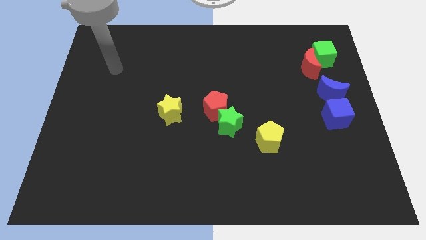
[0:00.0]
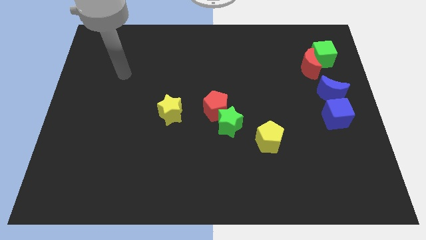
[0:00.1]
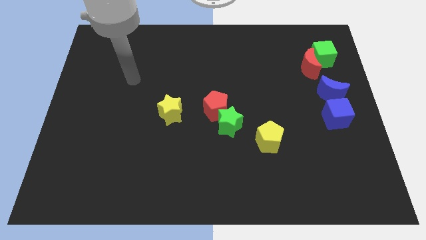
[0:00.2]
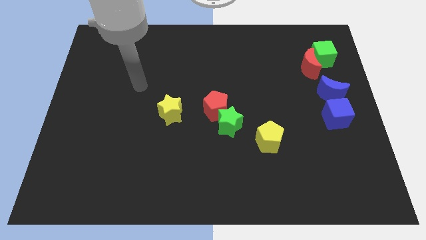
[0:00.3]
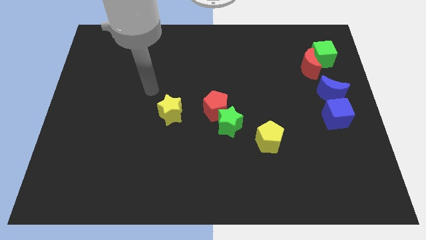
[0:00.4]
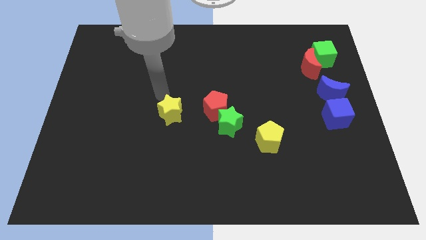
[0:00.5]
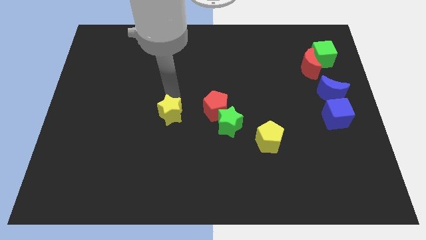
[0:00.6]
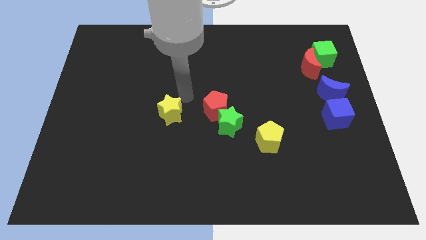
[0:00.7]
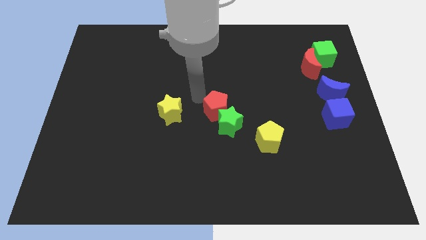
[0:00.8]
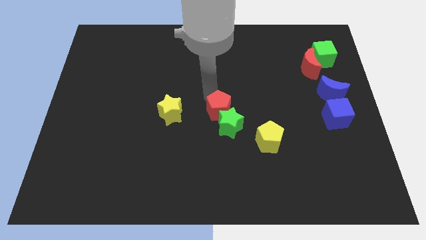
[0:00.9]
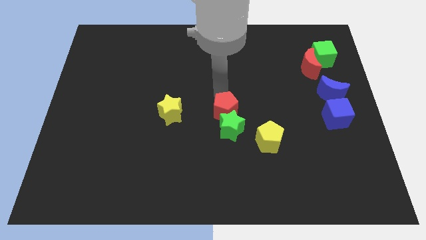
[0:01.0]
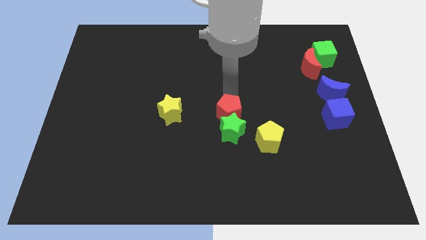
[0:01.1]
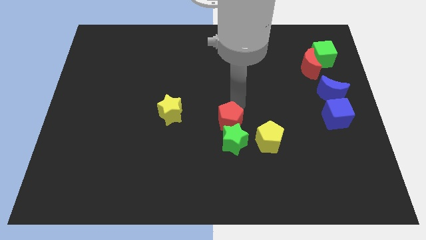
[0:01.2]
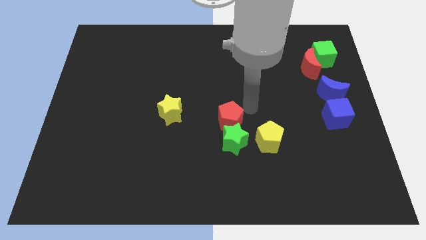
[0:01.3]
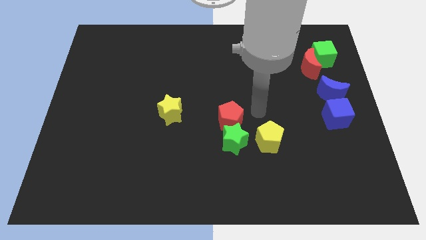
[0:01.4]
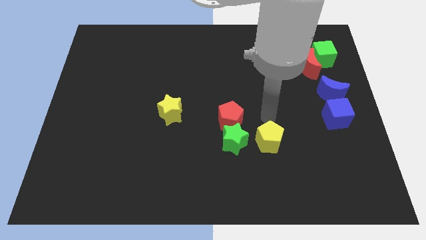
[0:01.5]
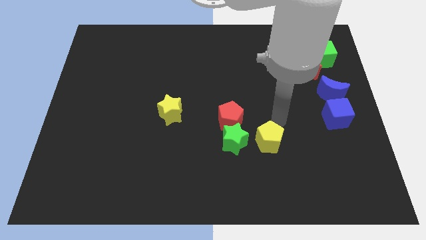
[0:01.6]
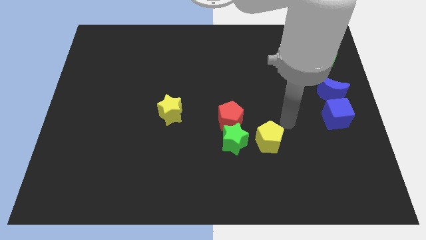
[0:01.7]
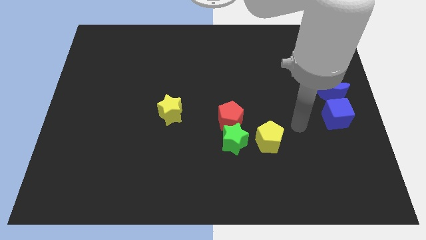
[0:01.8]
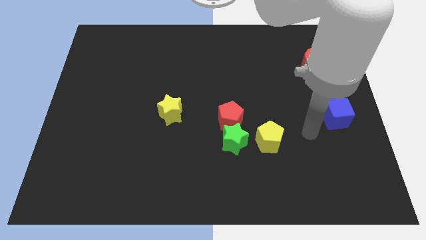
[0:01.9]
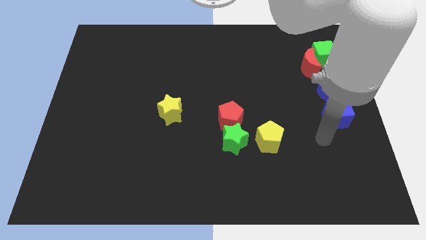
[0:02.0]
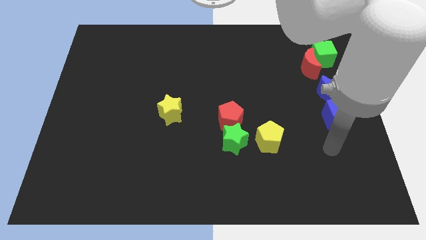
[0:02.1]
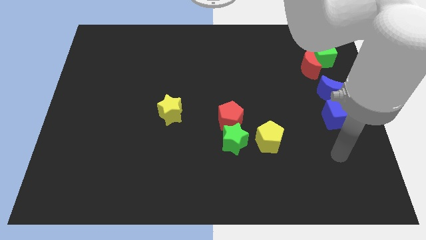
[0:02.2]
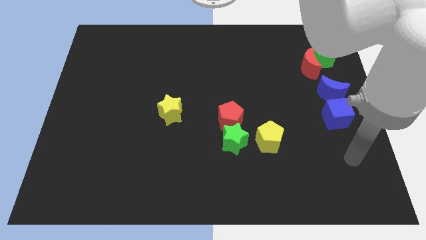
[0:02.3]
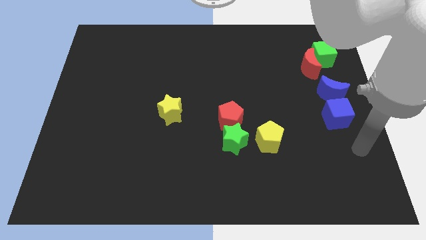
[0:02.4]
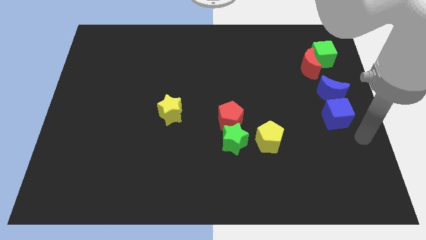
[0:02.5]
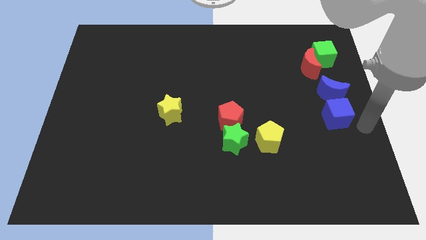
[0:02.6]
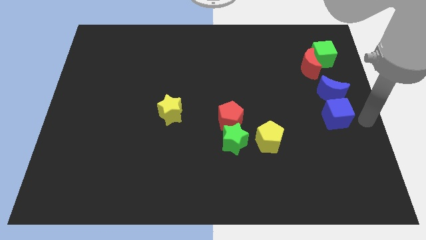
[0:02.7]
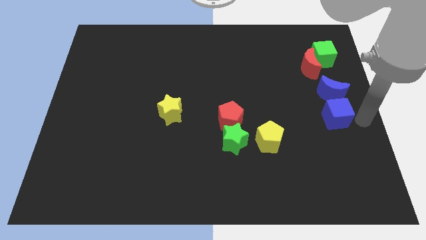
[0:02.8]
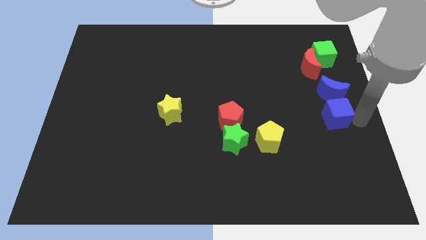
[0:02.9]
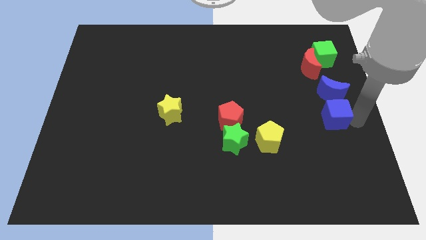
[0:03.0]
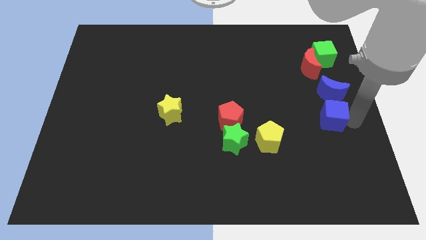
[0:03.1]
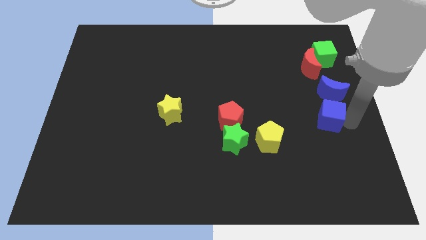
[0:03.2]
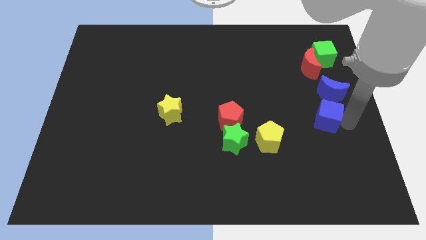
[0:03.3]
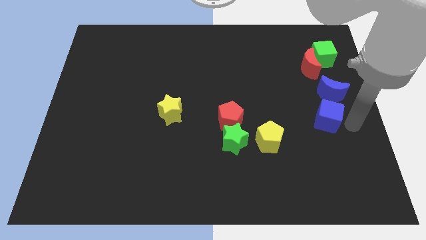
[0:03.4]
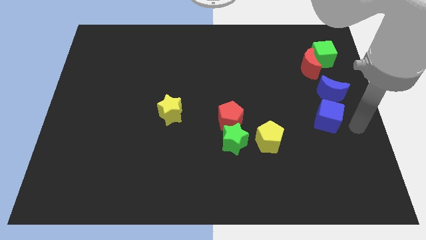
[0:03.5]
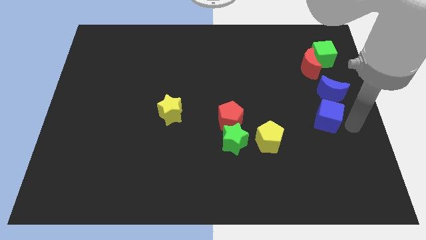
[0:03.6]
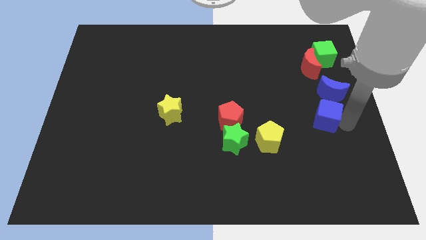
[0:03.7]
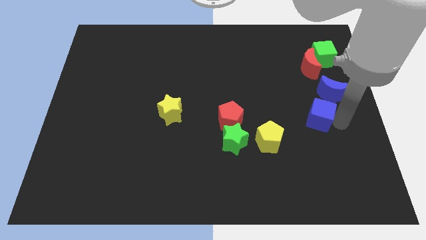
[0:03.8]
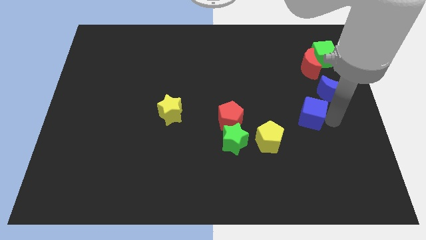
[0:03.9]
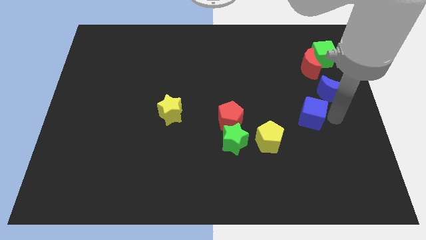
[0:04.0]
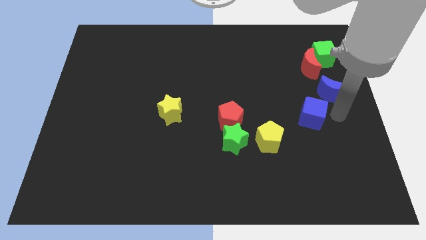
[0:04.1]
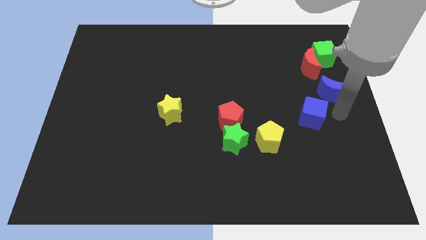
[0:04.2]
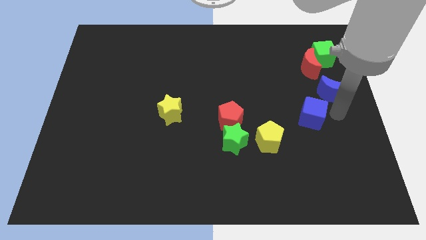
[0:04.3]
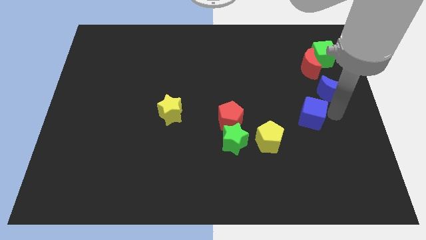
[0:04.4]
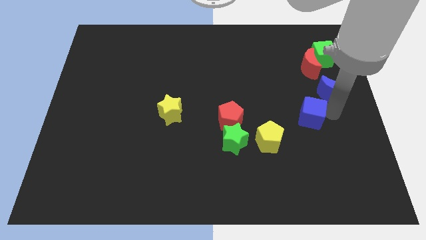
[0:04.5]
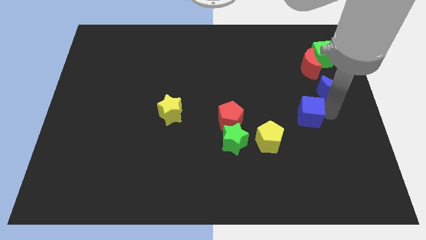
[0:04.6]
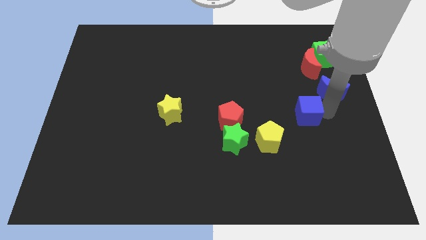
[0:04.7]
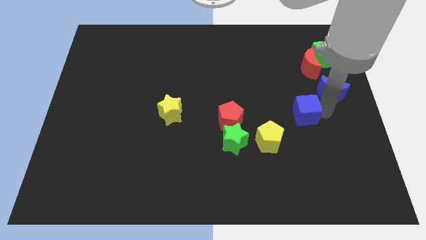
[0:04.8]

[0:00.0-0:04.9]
slightly slide the blue cube left

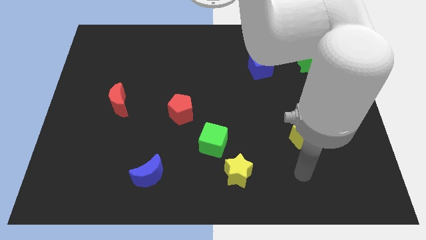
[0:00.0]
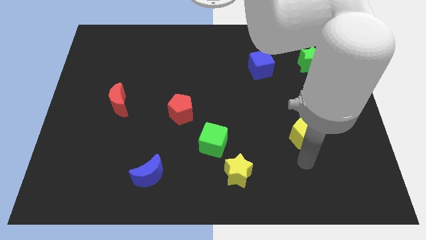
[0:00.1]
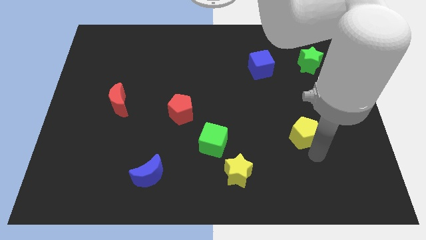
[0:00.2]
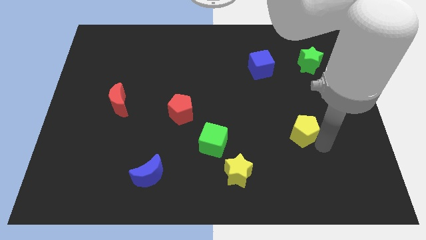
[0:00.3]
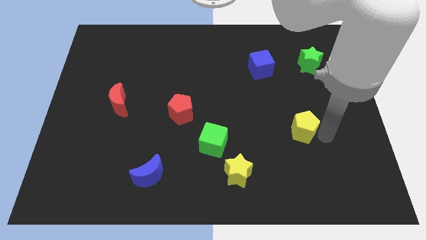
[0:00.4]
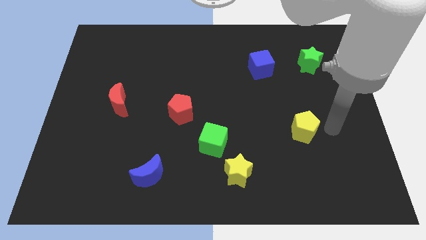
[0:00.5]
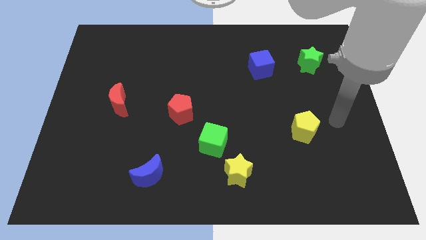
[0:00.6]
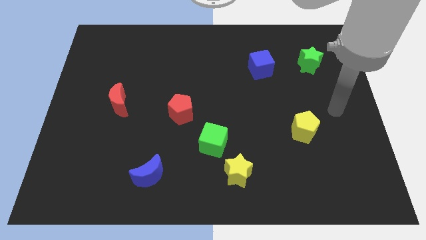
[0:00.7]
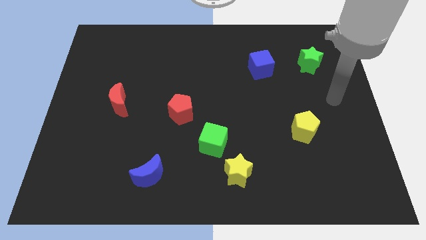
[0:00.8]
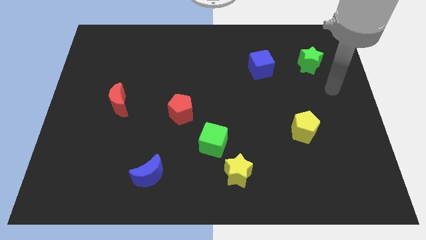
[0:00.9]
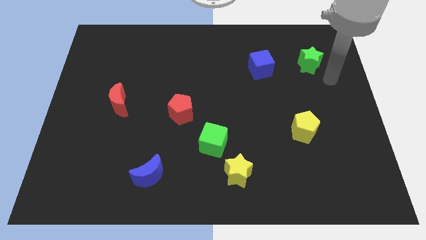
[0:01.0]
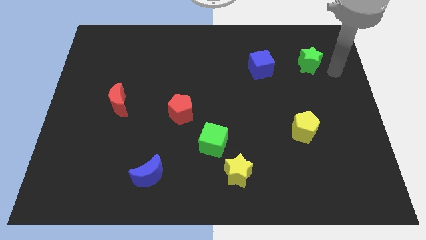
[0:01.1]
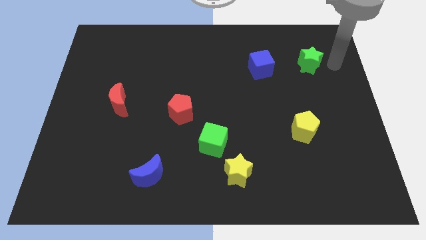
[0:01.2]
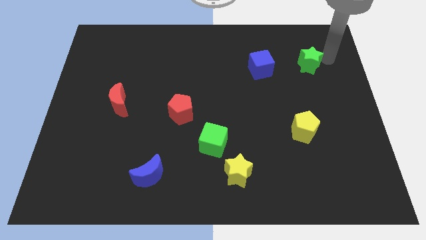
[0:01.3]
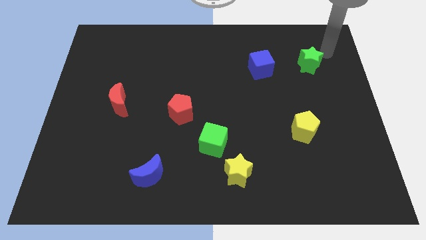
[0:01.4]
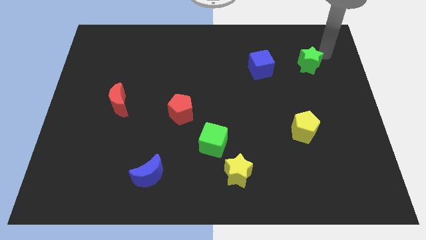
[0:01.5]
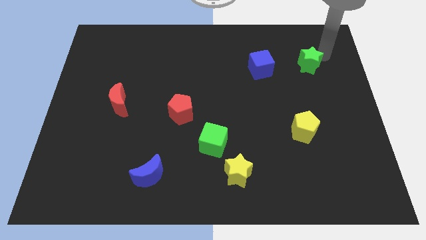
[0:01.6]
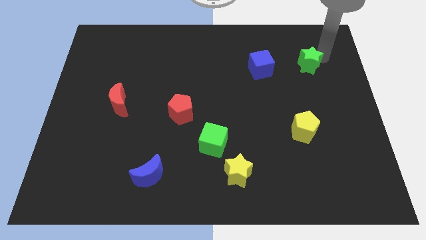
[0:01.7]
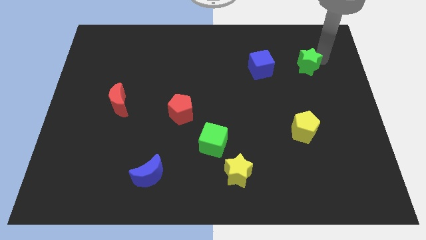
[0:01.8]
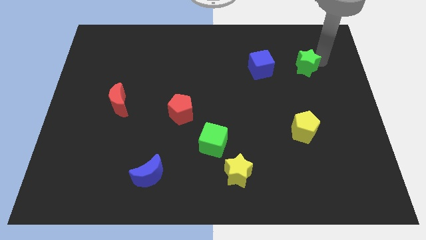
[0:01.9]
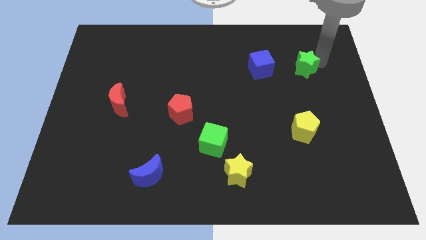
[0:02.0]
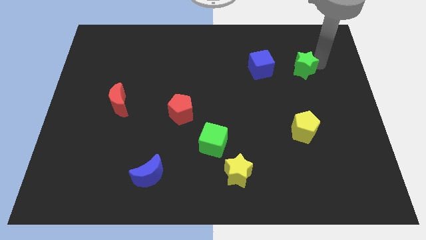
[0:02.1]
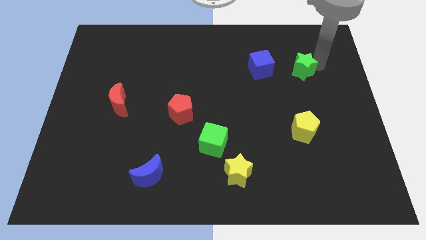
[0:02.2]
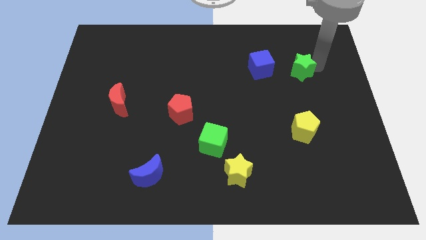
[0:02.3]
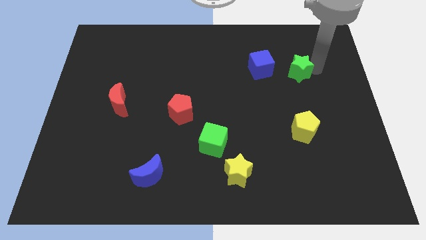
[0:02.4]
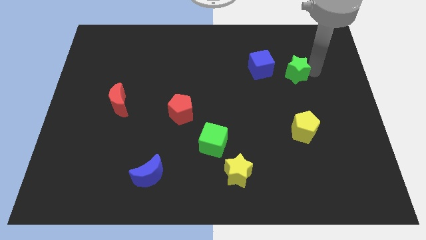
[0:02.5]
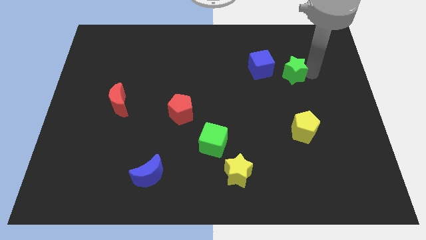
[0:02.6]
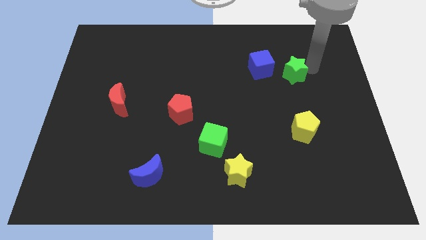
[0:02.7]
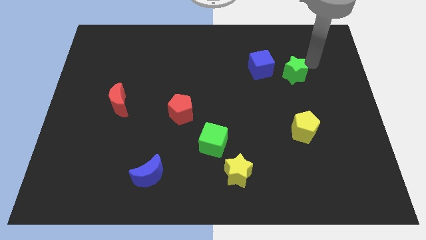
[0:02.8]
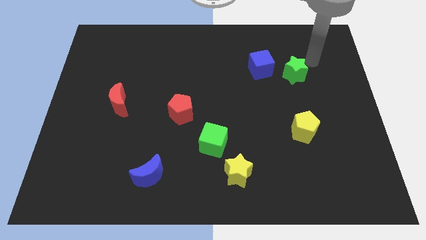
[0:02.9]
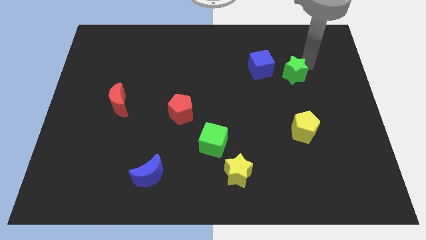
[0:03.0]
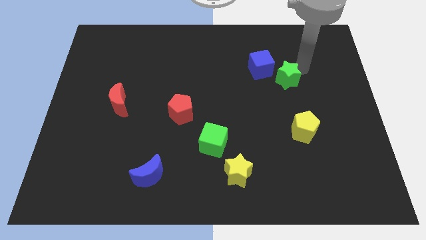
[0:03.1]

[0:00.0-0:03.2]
move the green star a little downwards and then left
